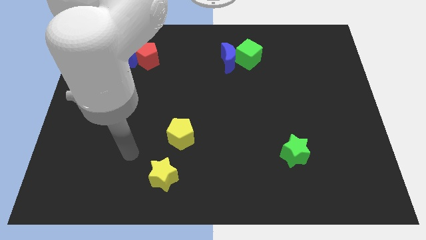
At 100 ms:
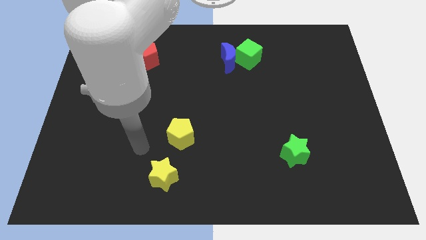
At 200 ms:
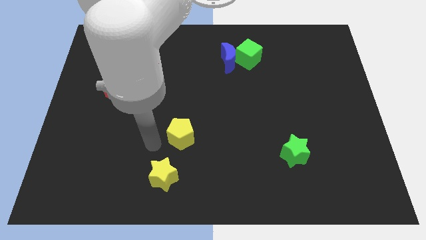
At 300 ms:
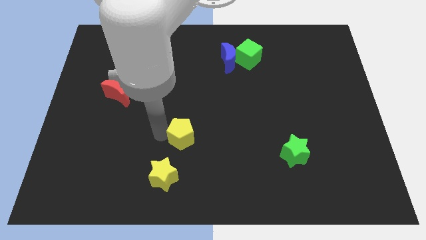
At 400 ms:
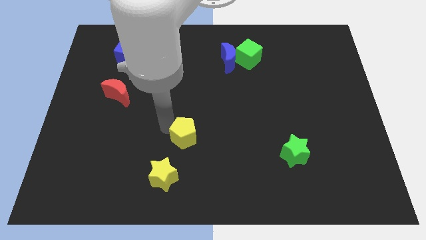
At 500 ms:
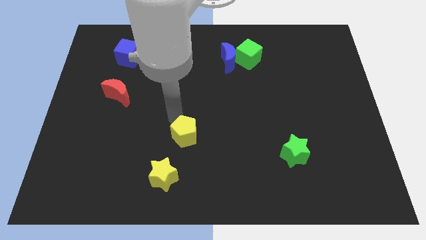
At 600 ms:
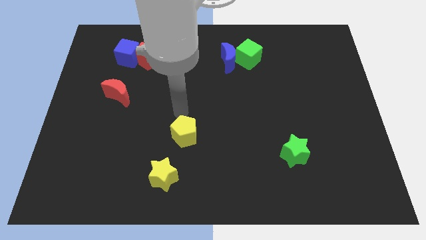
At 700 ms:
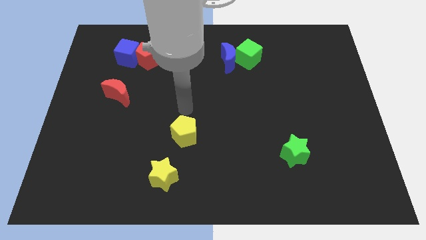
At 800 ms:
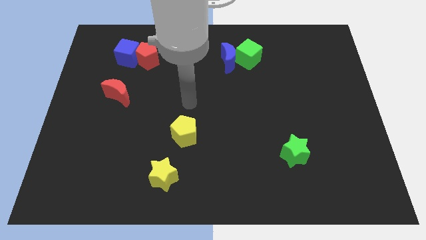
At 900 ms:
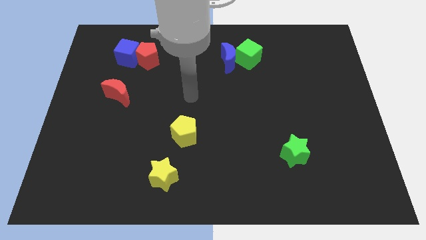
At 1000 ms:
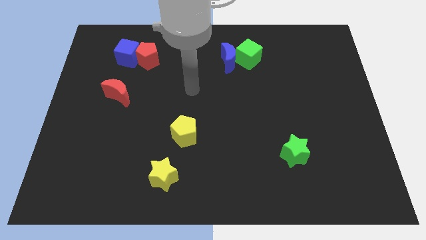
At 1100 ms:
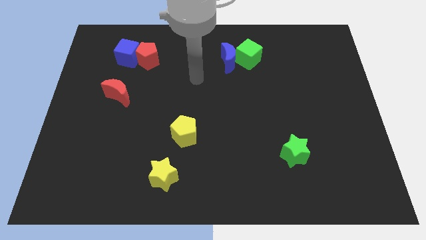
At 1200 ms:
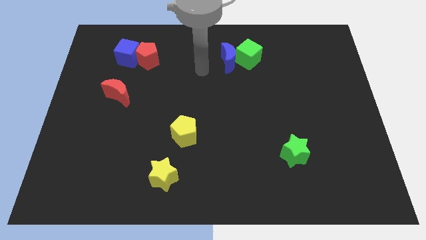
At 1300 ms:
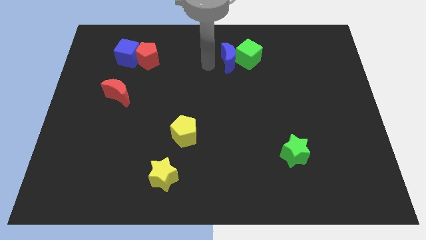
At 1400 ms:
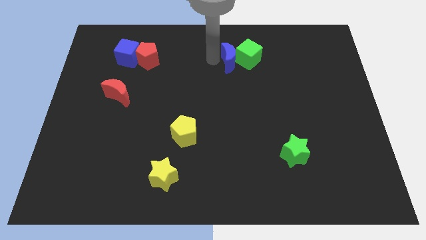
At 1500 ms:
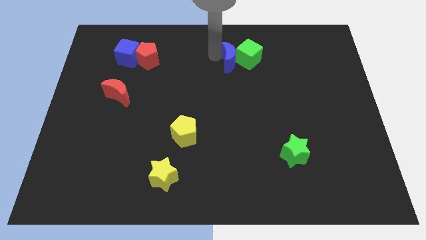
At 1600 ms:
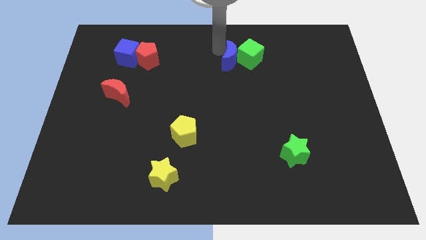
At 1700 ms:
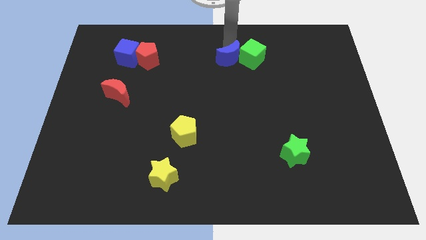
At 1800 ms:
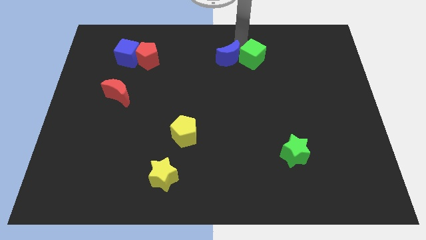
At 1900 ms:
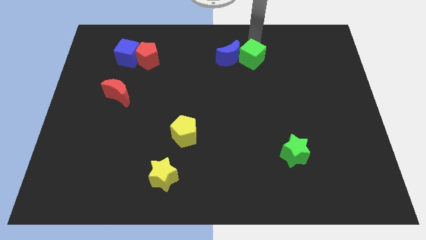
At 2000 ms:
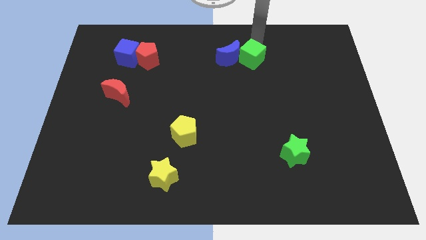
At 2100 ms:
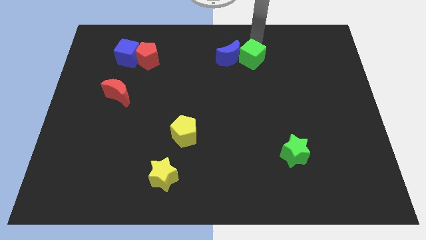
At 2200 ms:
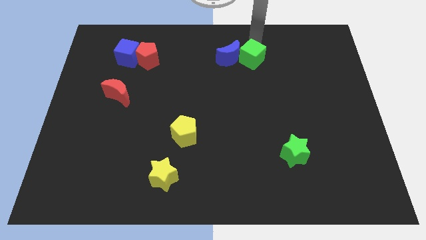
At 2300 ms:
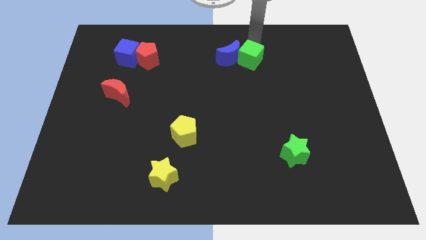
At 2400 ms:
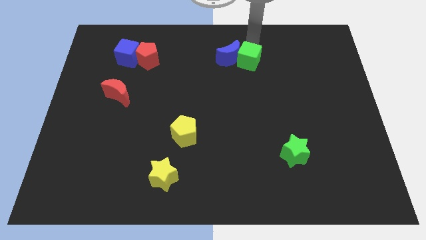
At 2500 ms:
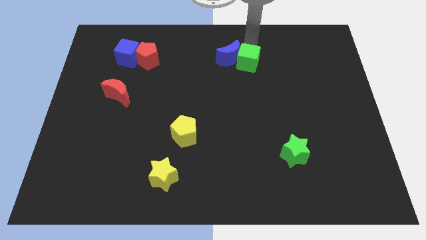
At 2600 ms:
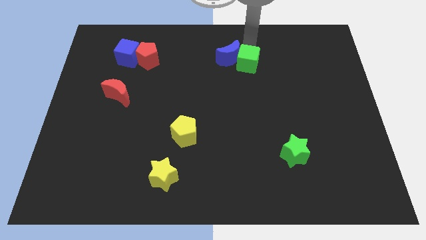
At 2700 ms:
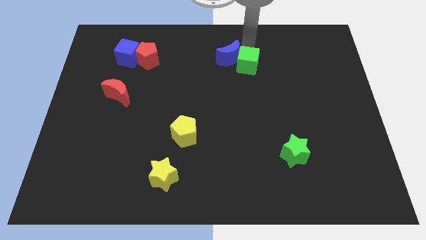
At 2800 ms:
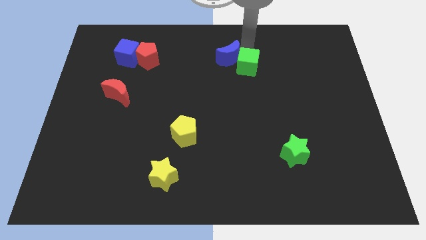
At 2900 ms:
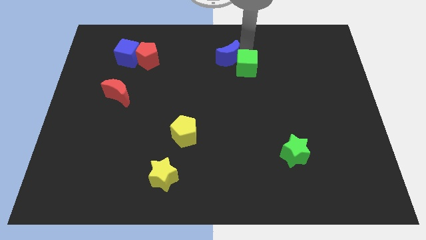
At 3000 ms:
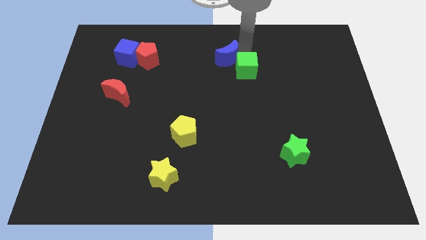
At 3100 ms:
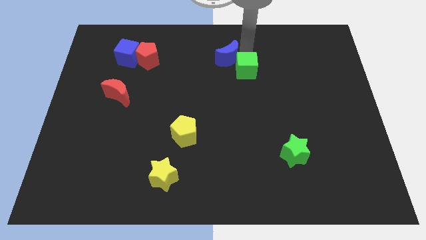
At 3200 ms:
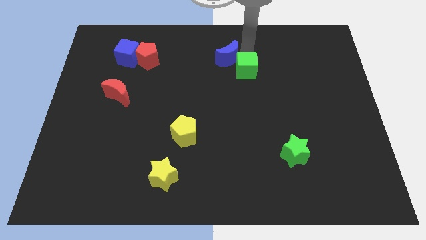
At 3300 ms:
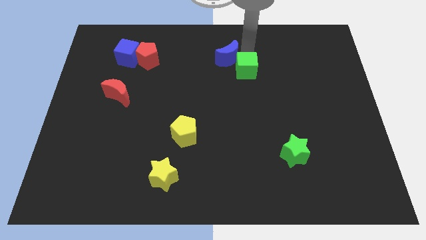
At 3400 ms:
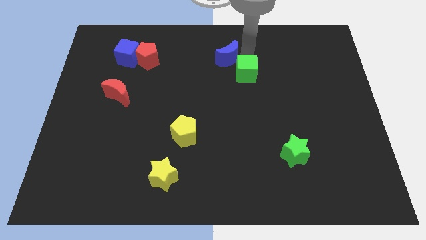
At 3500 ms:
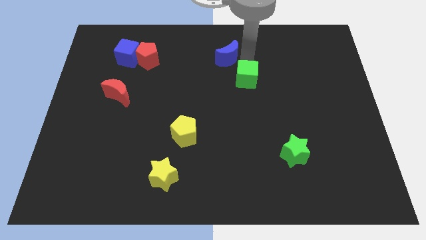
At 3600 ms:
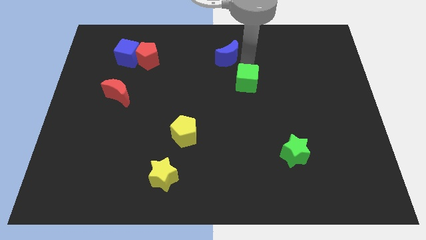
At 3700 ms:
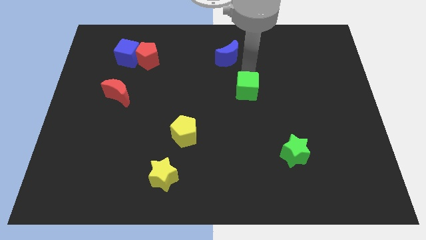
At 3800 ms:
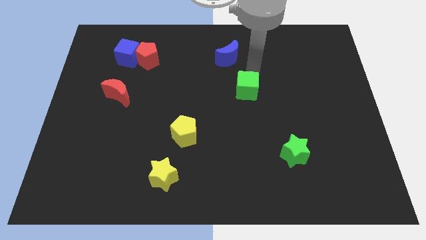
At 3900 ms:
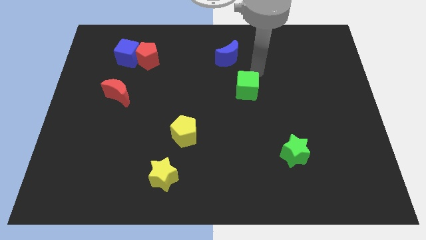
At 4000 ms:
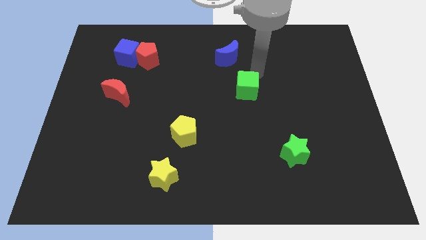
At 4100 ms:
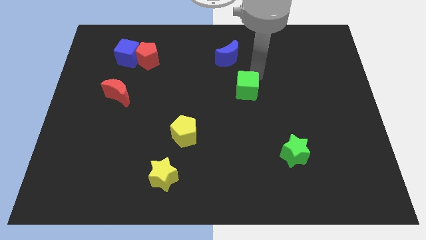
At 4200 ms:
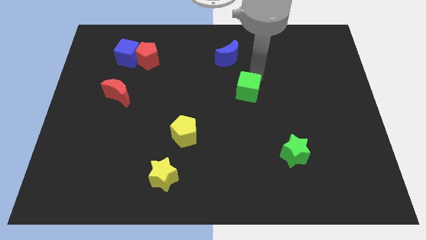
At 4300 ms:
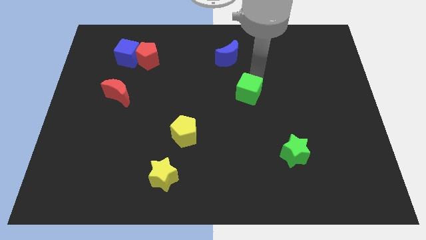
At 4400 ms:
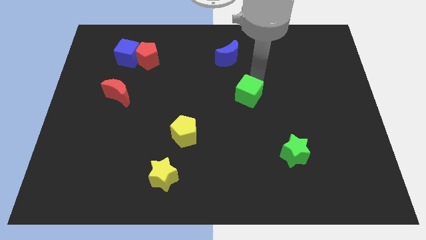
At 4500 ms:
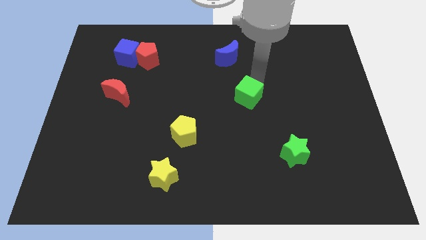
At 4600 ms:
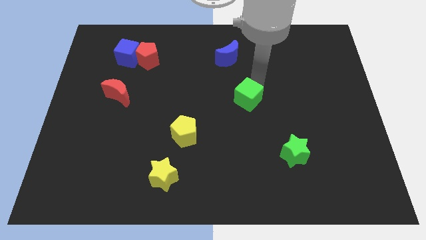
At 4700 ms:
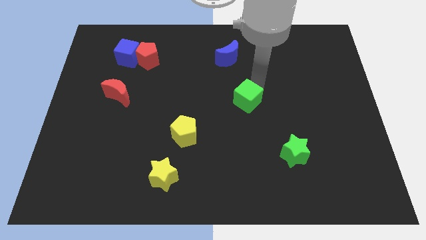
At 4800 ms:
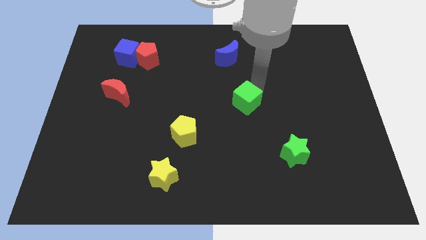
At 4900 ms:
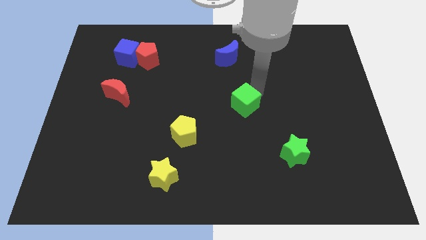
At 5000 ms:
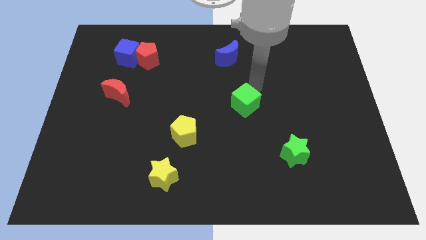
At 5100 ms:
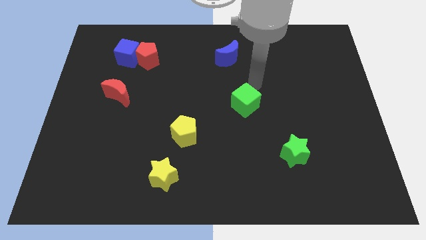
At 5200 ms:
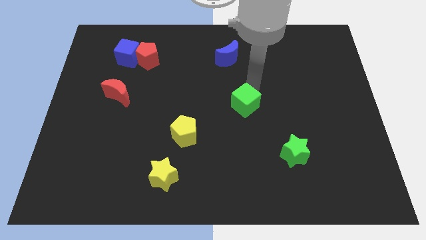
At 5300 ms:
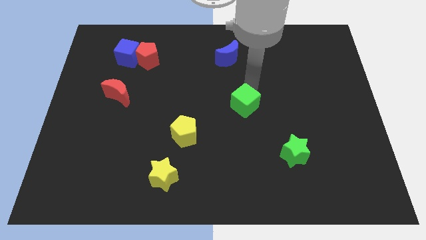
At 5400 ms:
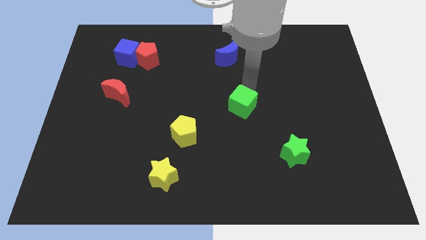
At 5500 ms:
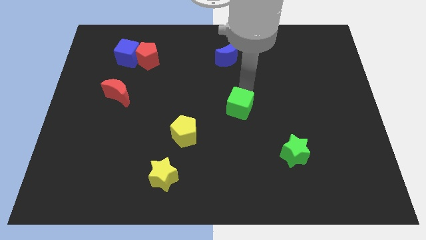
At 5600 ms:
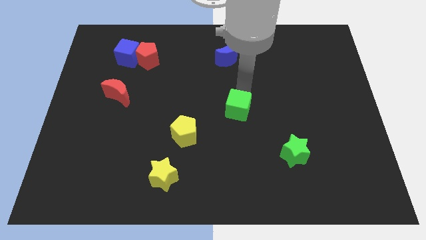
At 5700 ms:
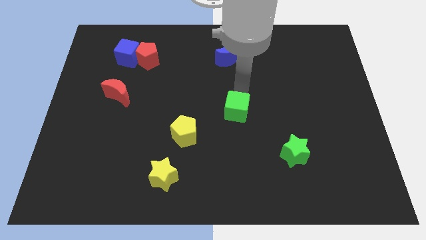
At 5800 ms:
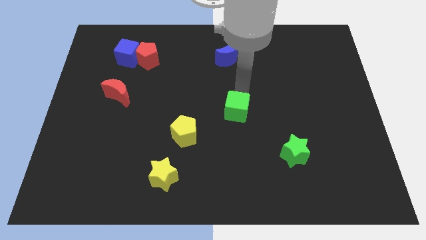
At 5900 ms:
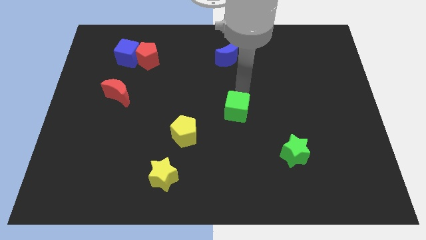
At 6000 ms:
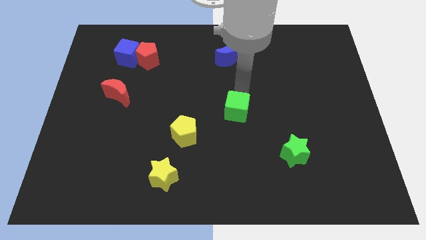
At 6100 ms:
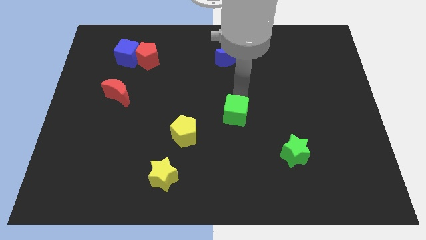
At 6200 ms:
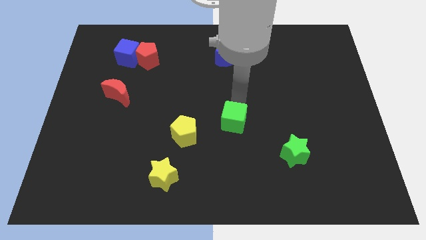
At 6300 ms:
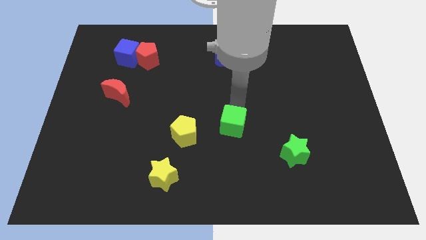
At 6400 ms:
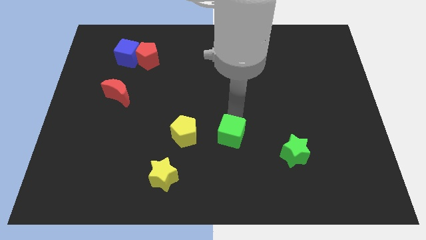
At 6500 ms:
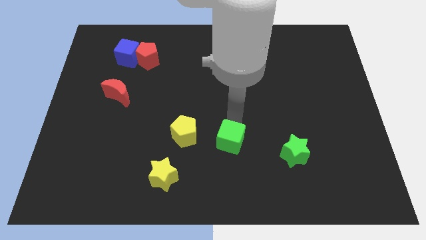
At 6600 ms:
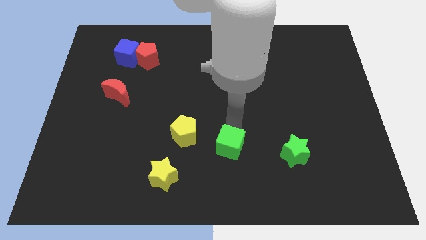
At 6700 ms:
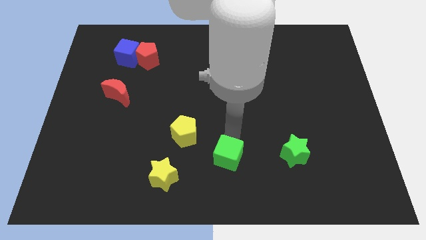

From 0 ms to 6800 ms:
push the green cube to the bottom
